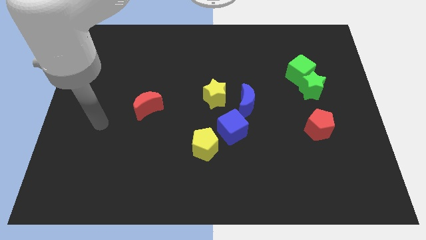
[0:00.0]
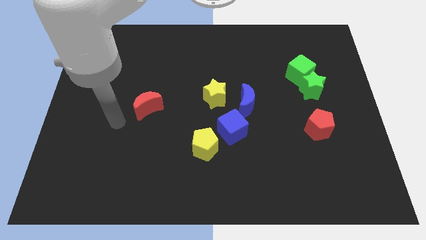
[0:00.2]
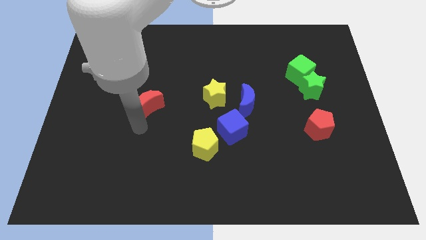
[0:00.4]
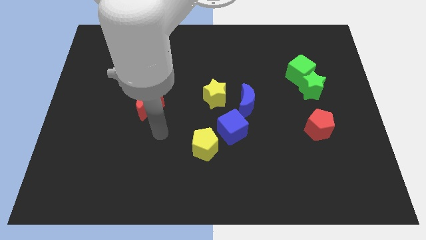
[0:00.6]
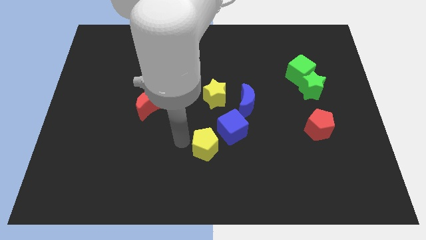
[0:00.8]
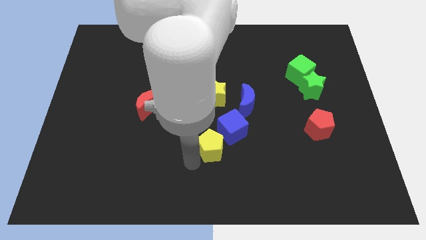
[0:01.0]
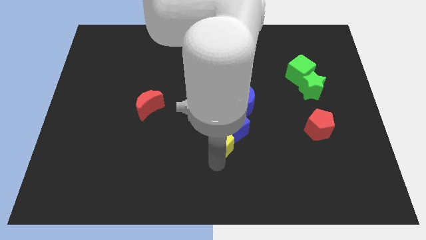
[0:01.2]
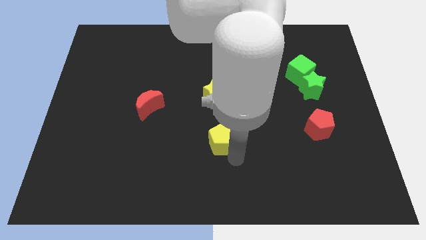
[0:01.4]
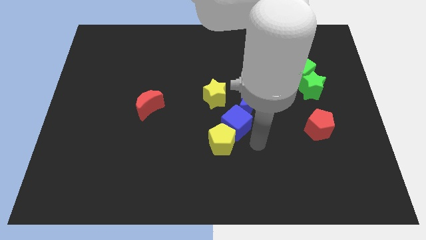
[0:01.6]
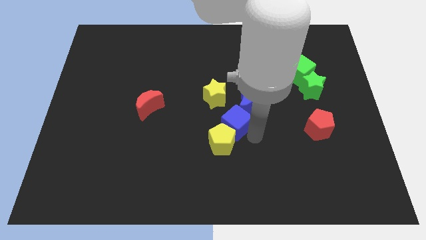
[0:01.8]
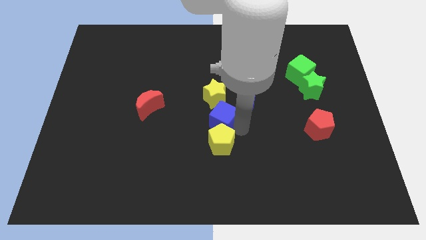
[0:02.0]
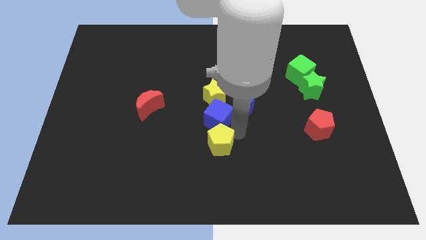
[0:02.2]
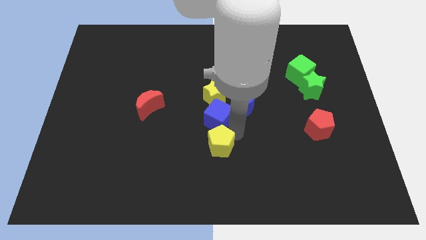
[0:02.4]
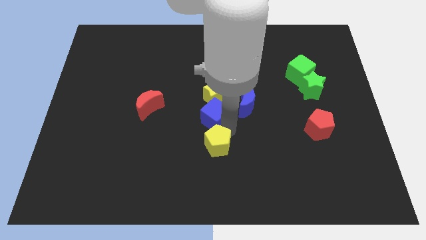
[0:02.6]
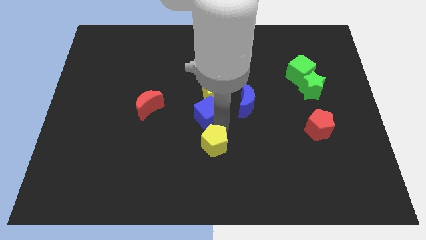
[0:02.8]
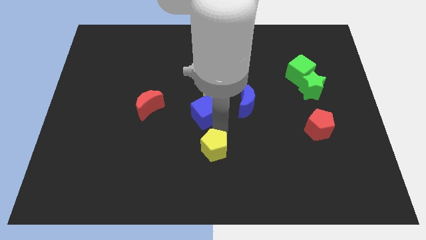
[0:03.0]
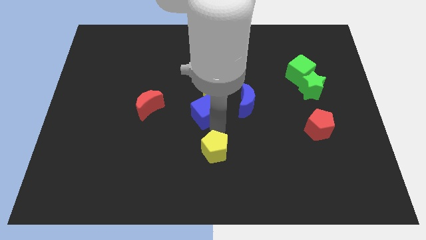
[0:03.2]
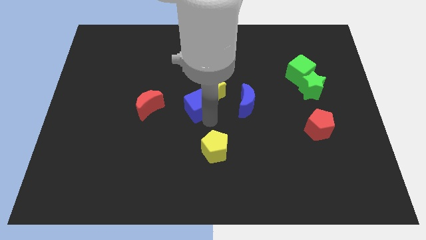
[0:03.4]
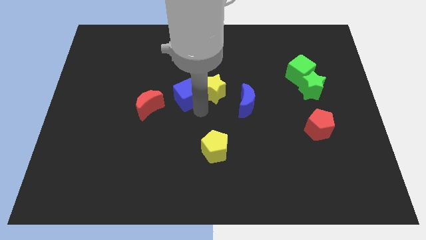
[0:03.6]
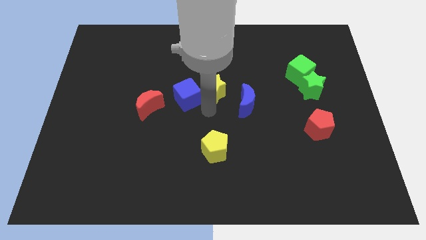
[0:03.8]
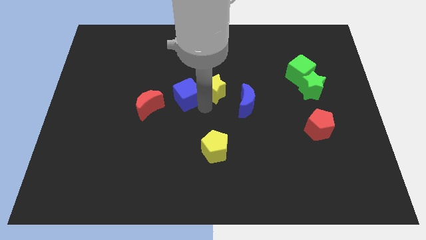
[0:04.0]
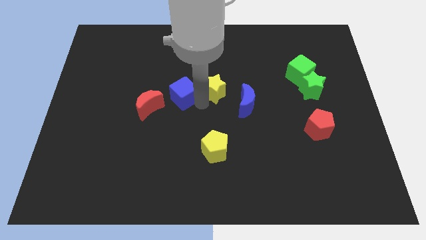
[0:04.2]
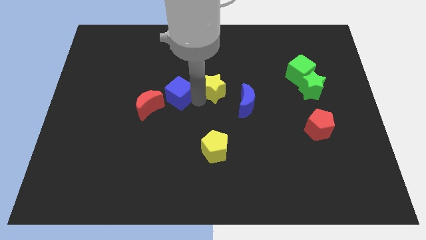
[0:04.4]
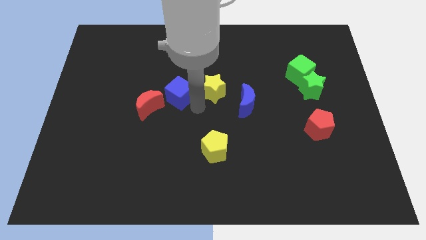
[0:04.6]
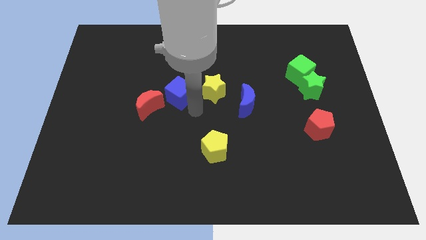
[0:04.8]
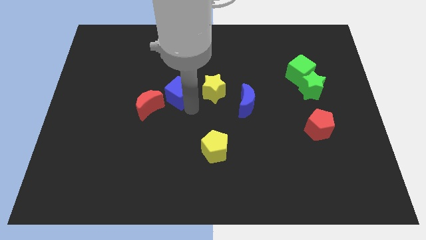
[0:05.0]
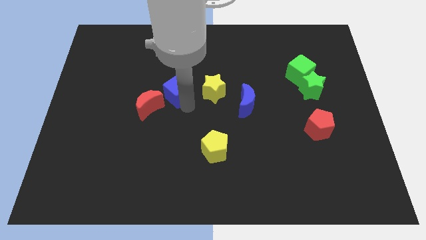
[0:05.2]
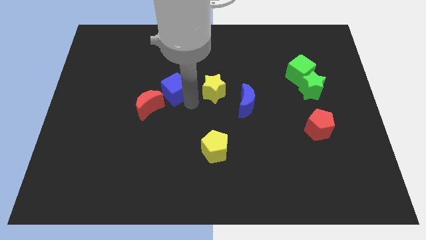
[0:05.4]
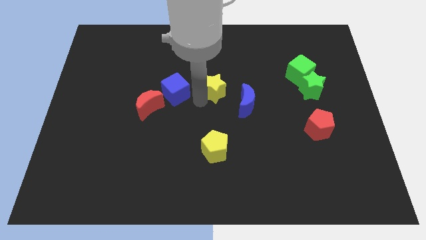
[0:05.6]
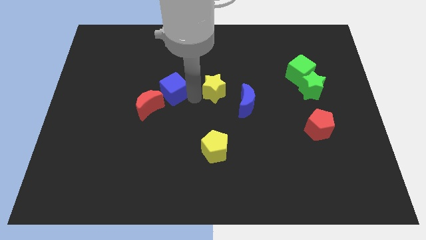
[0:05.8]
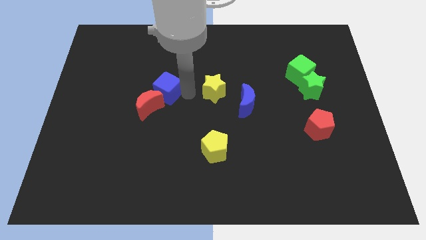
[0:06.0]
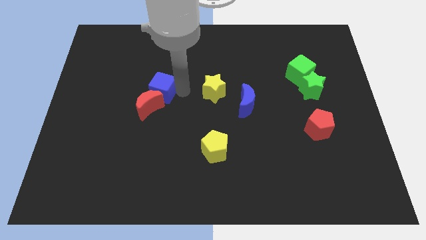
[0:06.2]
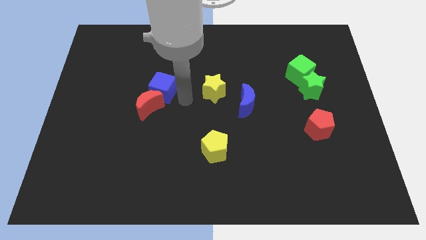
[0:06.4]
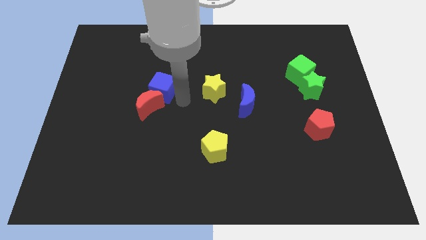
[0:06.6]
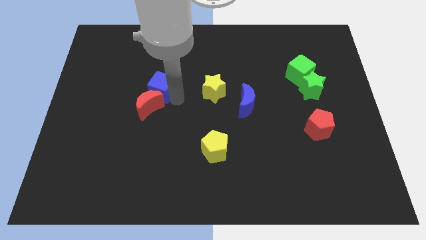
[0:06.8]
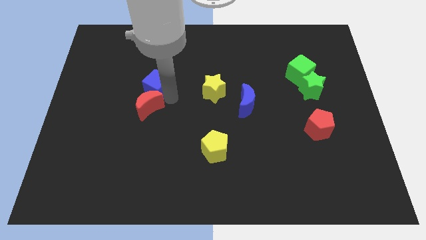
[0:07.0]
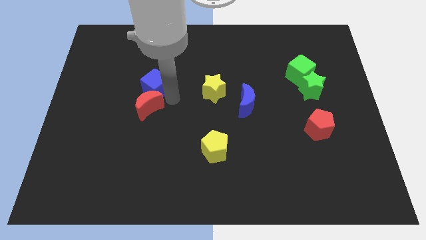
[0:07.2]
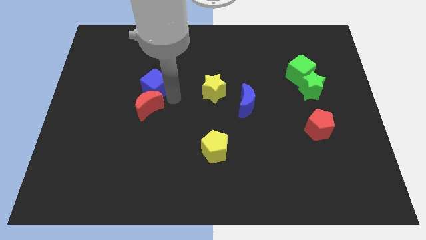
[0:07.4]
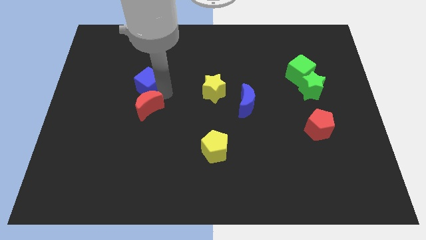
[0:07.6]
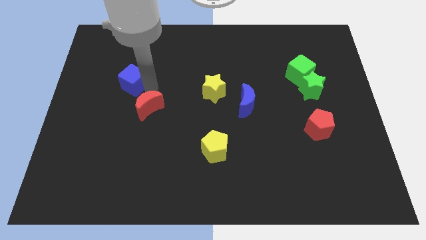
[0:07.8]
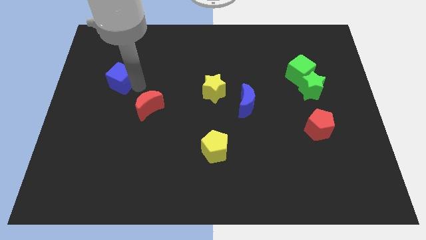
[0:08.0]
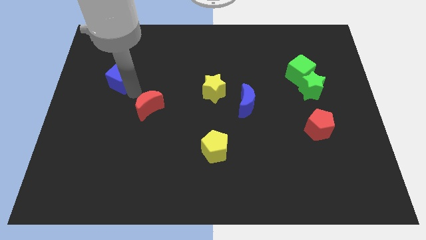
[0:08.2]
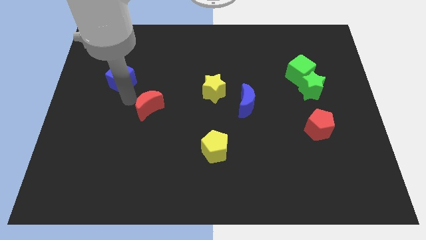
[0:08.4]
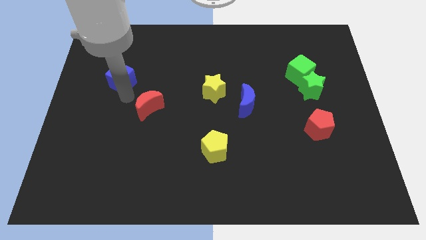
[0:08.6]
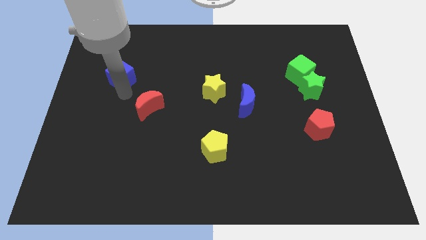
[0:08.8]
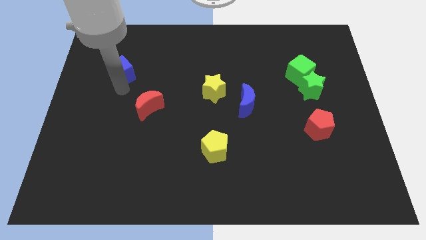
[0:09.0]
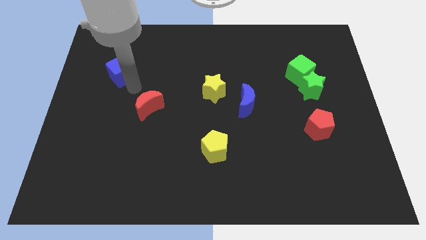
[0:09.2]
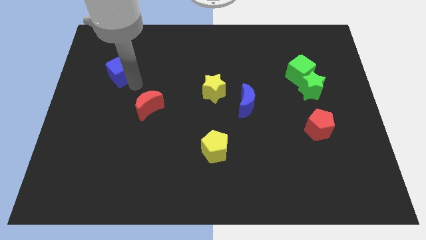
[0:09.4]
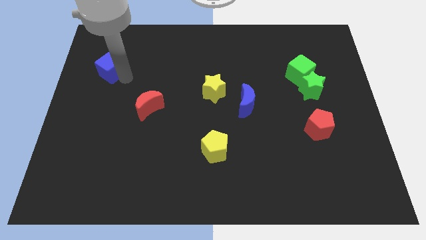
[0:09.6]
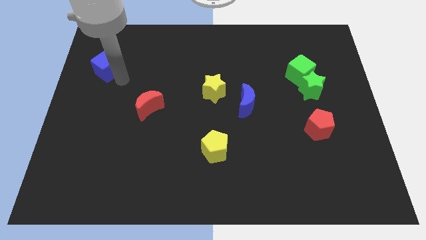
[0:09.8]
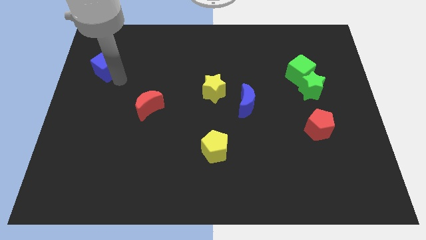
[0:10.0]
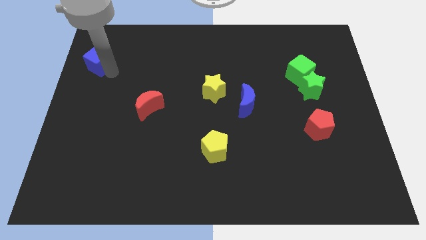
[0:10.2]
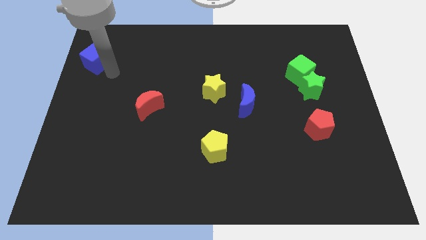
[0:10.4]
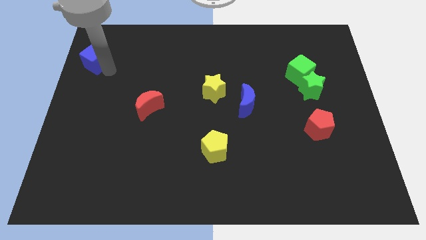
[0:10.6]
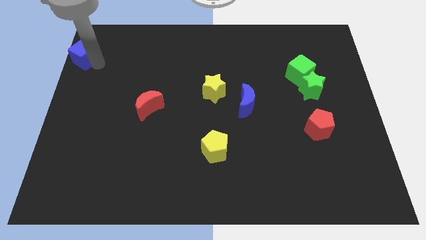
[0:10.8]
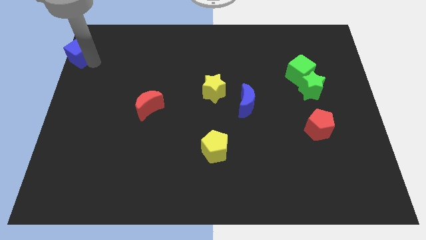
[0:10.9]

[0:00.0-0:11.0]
slide the blue cube to the top left

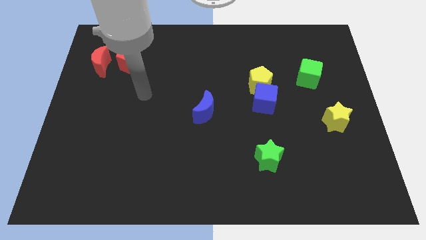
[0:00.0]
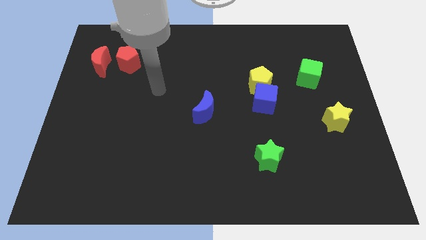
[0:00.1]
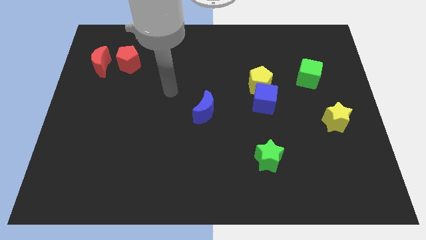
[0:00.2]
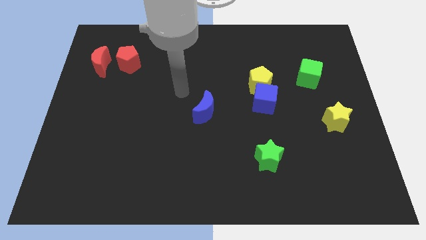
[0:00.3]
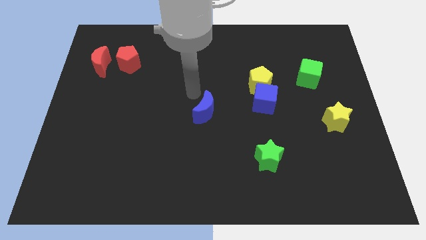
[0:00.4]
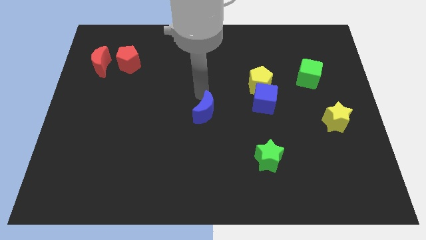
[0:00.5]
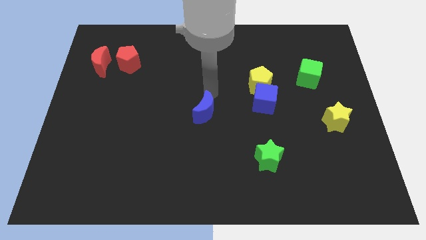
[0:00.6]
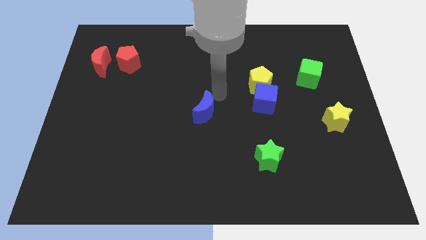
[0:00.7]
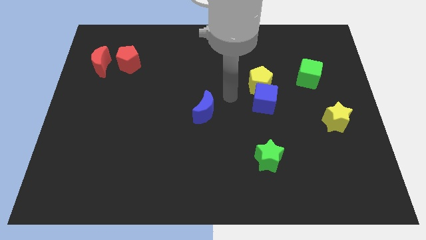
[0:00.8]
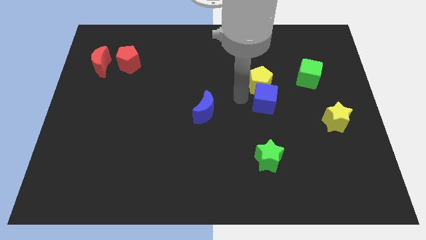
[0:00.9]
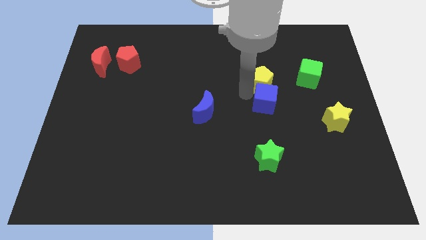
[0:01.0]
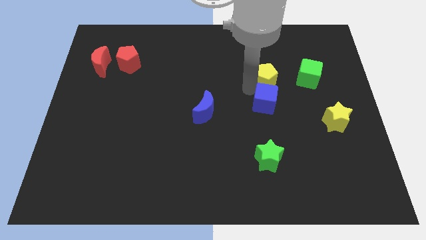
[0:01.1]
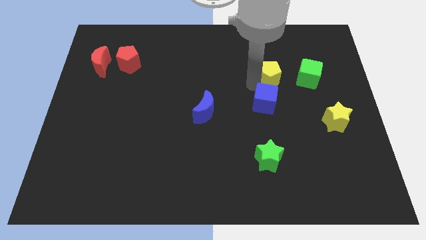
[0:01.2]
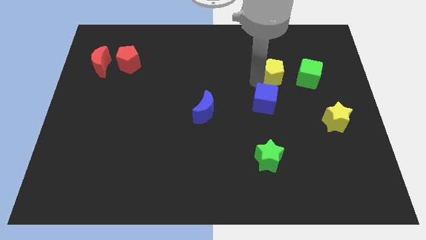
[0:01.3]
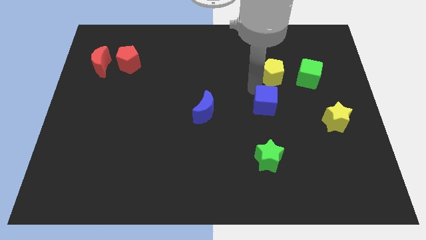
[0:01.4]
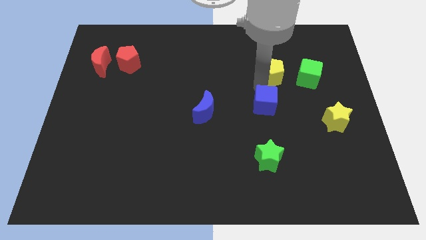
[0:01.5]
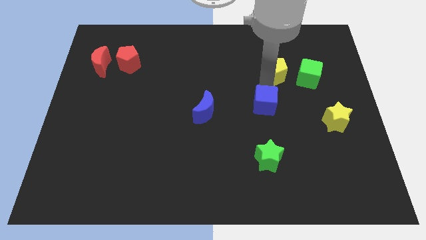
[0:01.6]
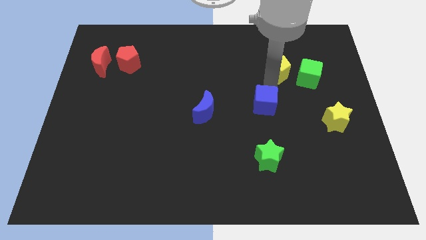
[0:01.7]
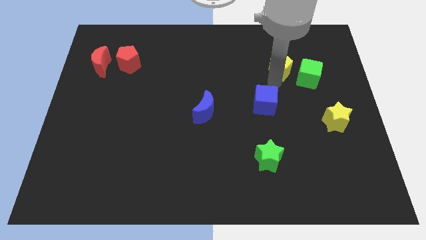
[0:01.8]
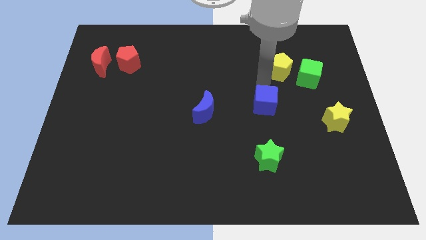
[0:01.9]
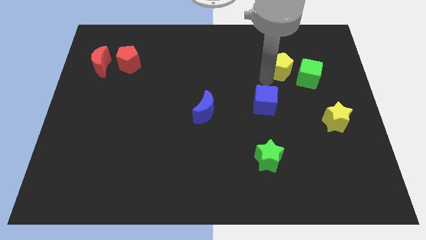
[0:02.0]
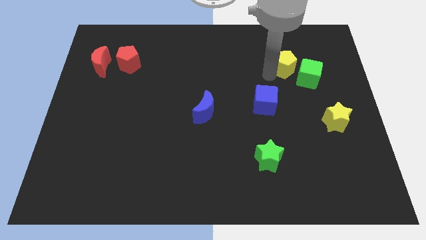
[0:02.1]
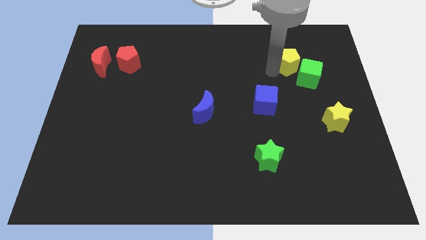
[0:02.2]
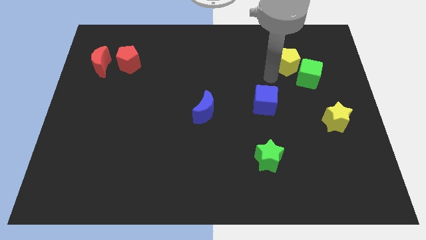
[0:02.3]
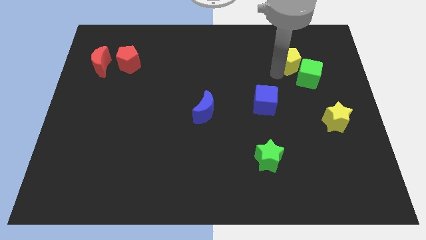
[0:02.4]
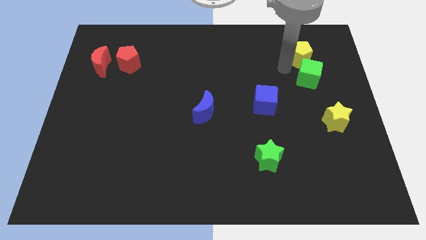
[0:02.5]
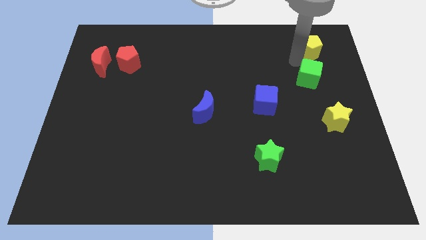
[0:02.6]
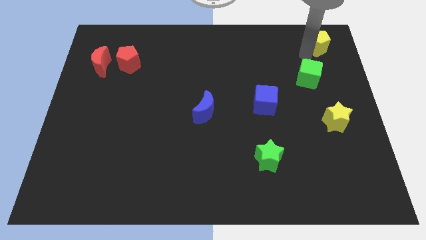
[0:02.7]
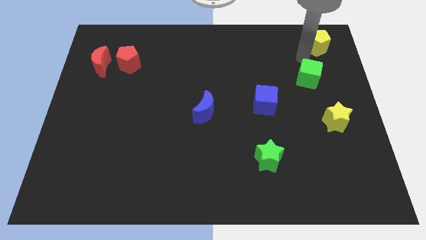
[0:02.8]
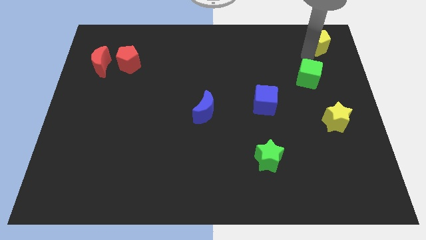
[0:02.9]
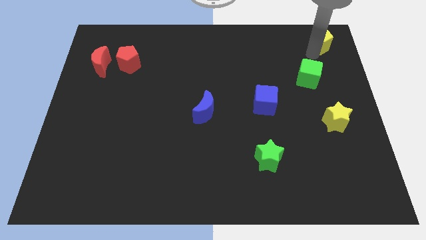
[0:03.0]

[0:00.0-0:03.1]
move the yellow pentagon to the top right of the board
